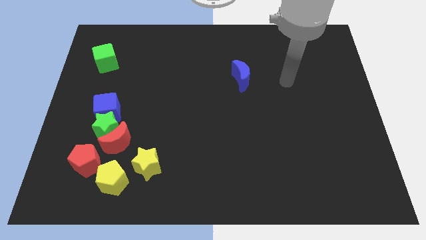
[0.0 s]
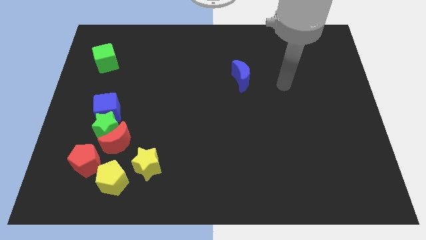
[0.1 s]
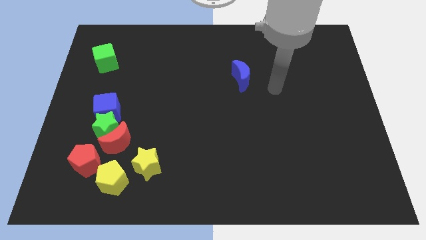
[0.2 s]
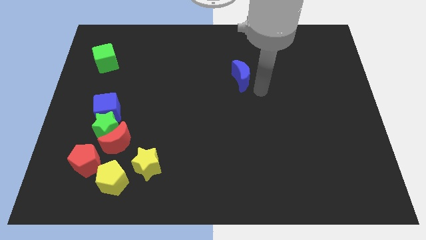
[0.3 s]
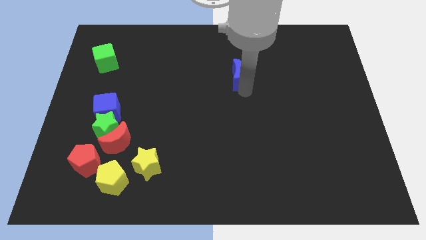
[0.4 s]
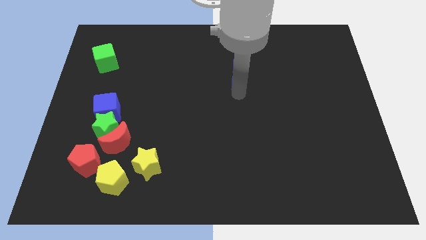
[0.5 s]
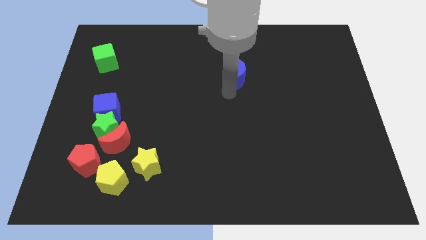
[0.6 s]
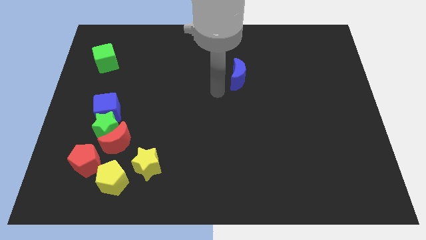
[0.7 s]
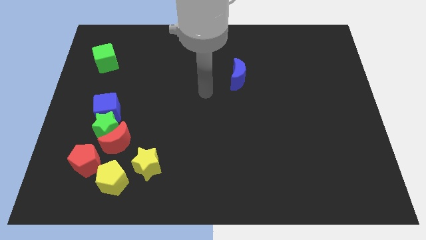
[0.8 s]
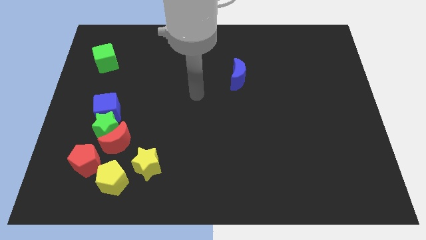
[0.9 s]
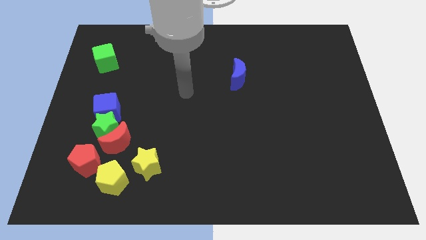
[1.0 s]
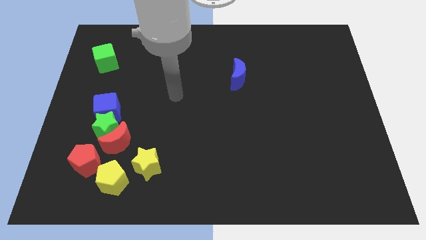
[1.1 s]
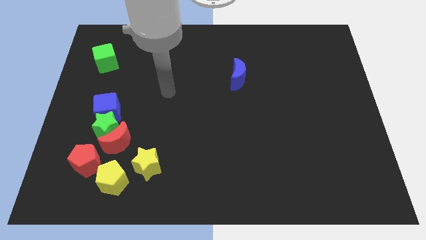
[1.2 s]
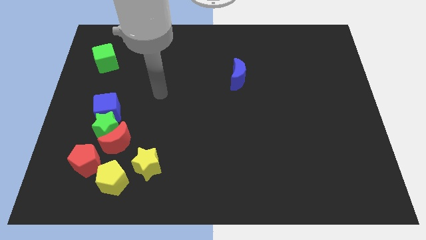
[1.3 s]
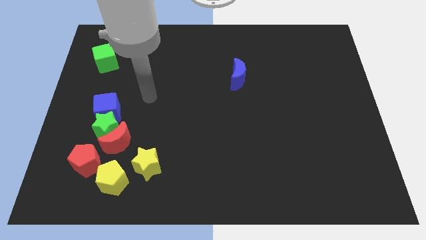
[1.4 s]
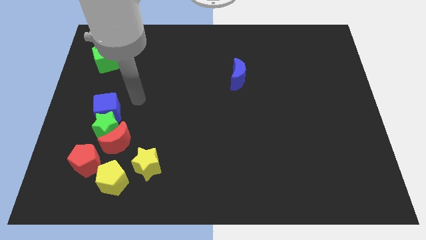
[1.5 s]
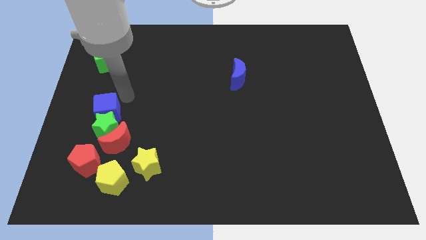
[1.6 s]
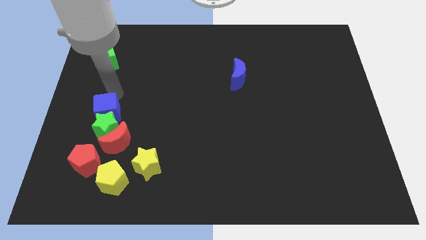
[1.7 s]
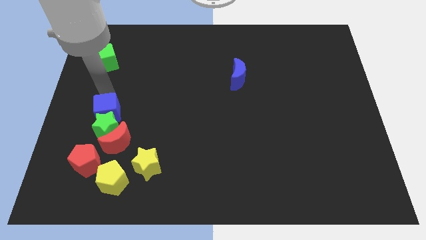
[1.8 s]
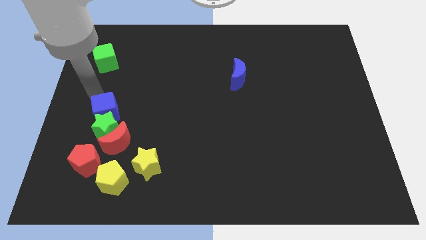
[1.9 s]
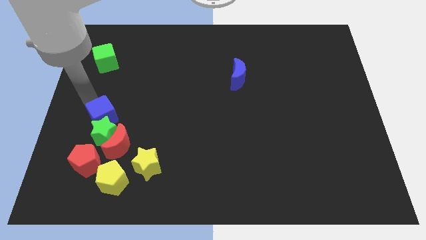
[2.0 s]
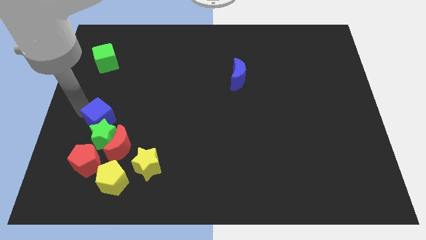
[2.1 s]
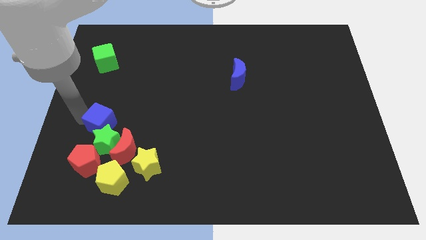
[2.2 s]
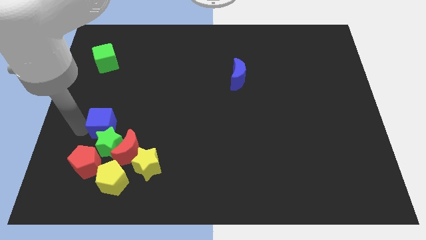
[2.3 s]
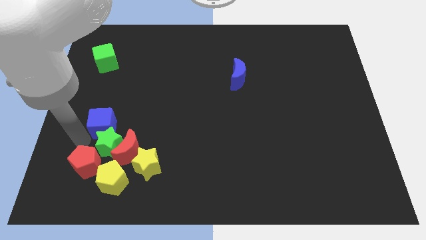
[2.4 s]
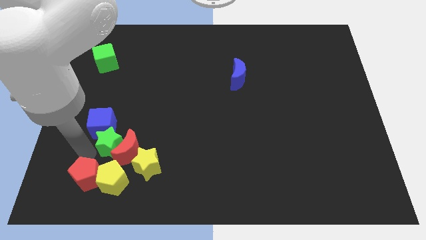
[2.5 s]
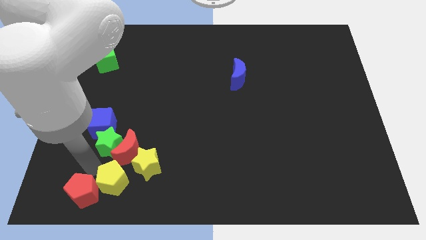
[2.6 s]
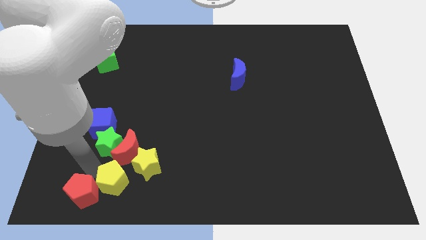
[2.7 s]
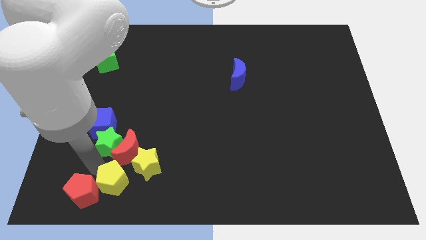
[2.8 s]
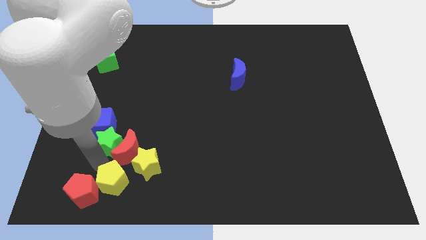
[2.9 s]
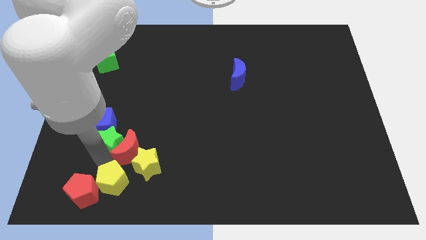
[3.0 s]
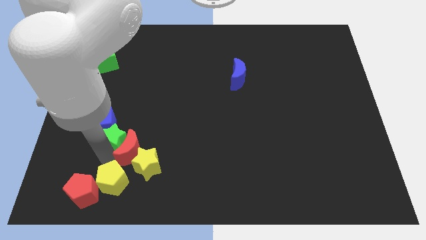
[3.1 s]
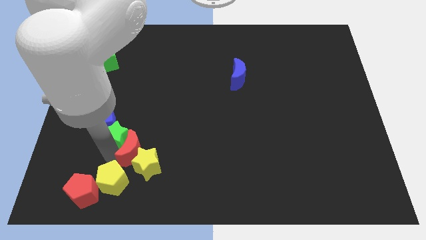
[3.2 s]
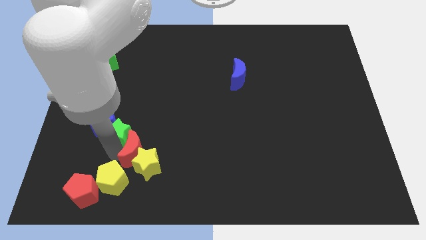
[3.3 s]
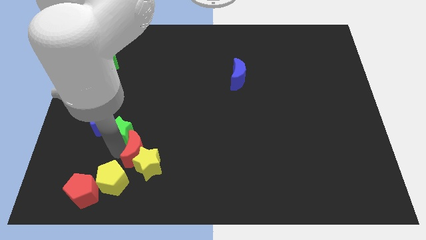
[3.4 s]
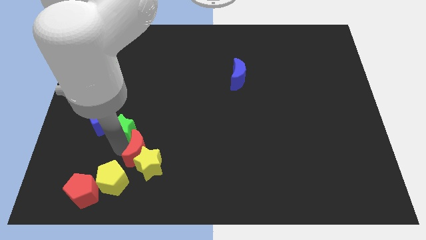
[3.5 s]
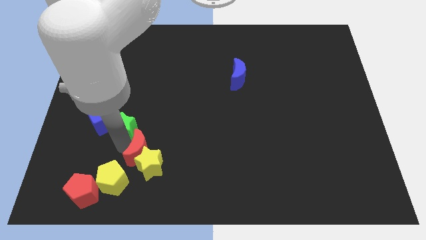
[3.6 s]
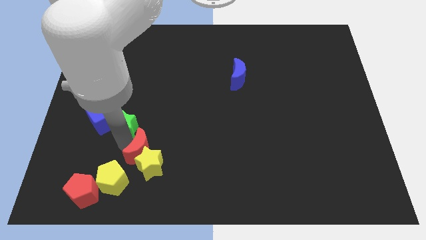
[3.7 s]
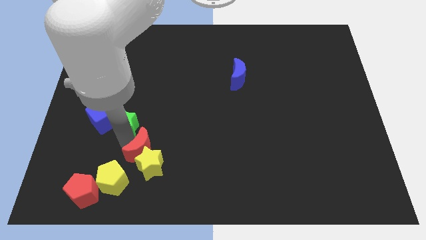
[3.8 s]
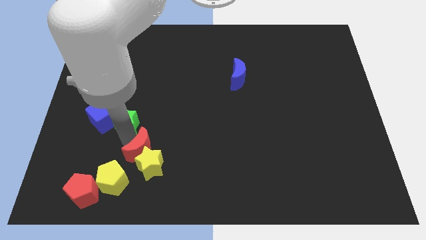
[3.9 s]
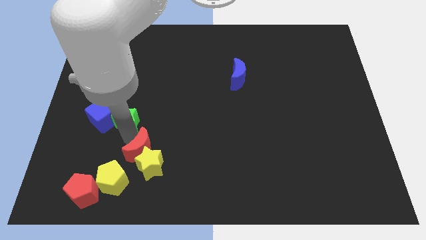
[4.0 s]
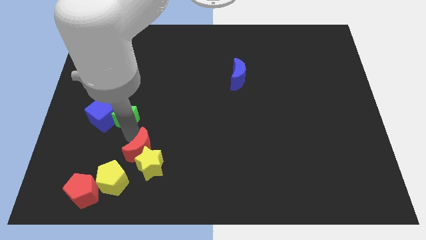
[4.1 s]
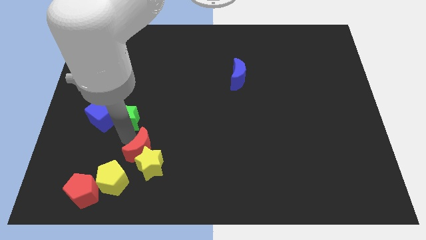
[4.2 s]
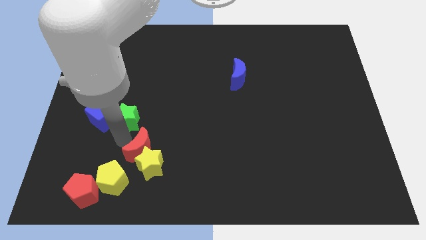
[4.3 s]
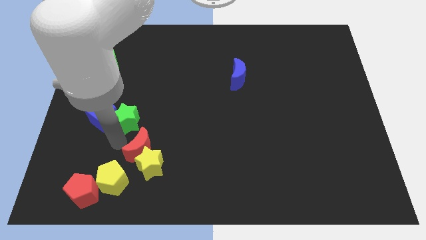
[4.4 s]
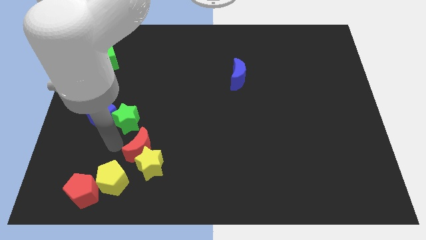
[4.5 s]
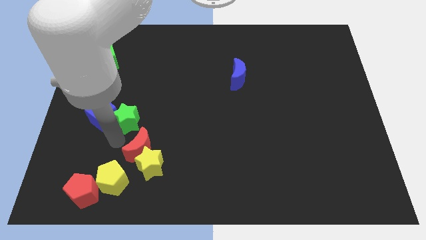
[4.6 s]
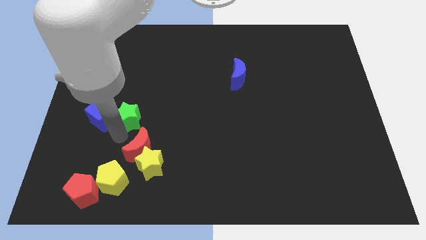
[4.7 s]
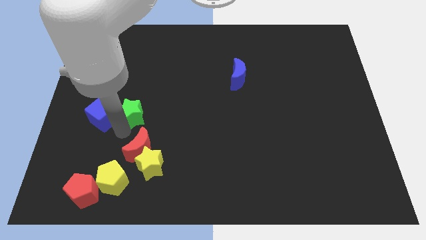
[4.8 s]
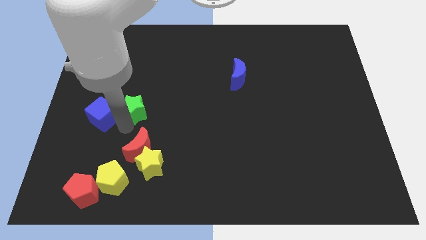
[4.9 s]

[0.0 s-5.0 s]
pull the green star apart from the red moon, blue cube, and red pentagon

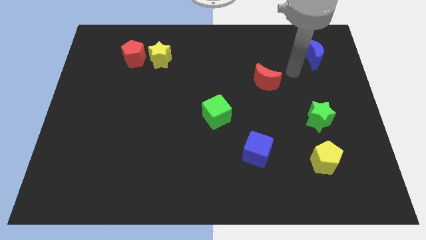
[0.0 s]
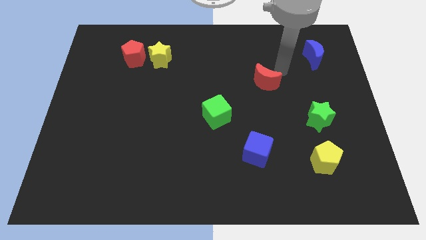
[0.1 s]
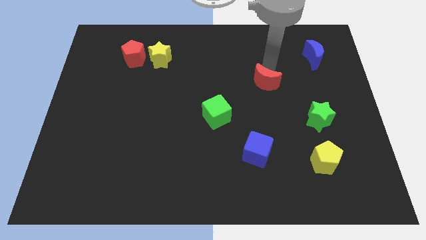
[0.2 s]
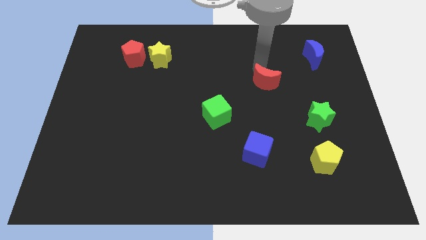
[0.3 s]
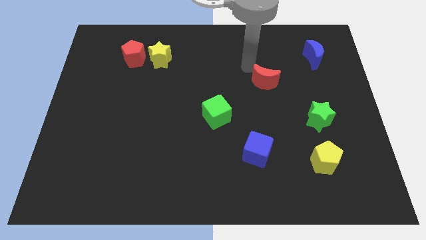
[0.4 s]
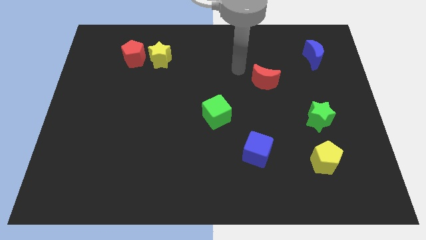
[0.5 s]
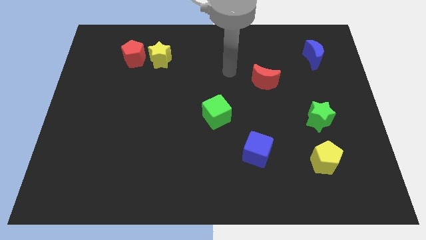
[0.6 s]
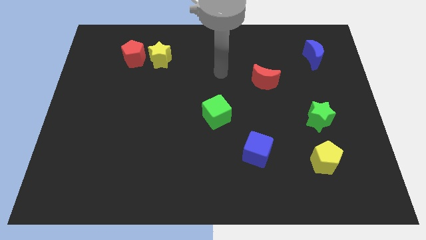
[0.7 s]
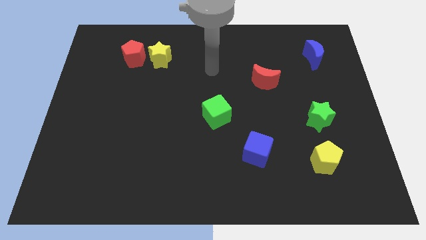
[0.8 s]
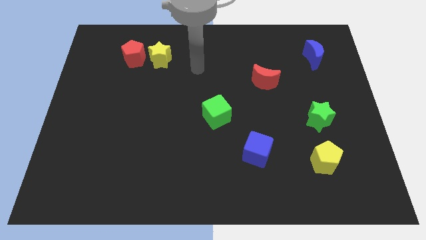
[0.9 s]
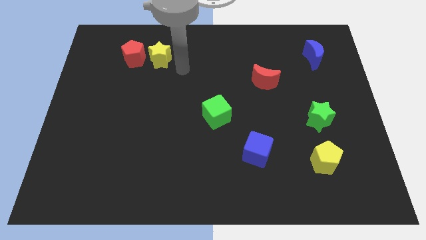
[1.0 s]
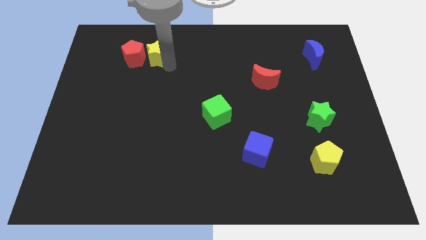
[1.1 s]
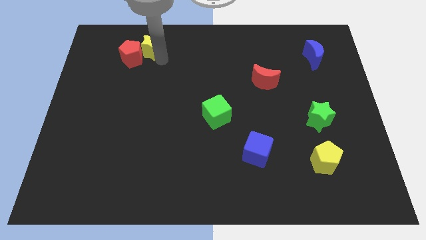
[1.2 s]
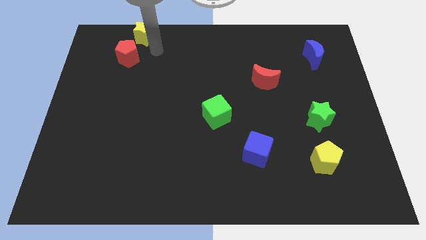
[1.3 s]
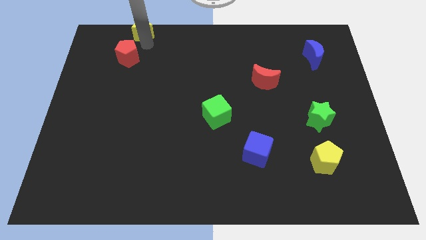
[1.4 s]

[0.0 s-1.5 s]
pull the red pentagon apart from the yellow star

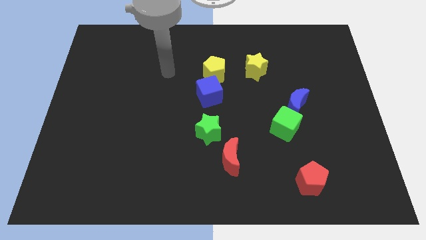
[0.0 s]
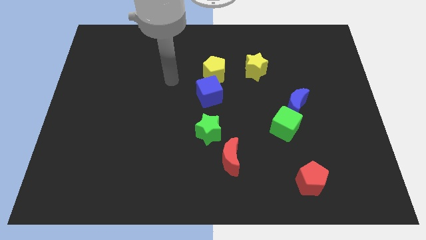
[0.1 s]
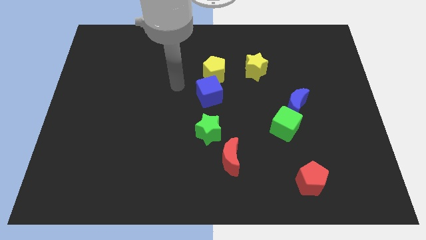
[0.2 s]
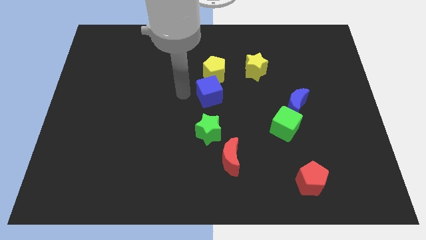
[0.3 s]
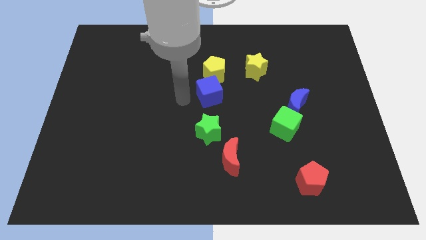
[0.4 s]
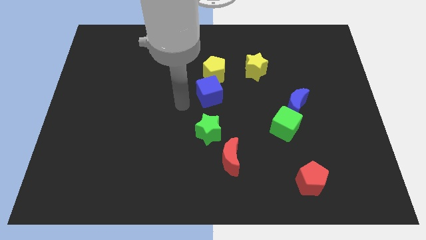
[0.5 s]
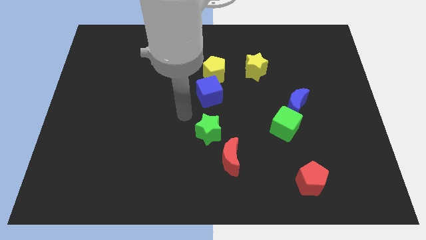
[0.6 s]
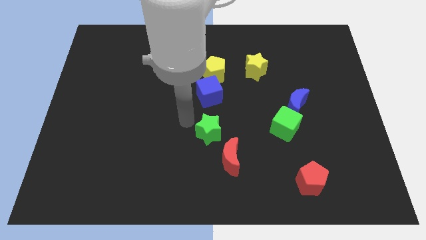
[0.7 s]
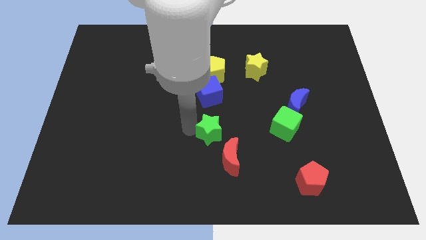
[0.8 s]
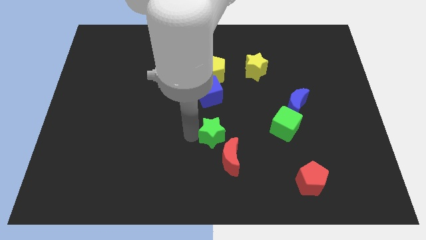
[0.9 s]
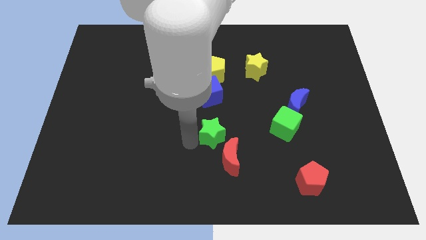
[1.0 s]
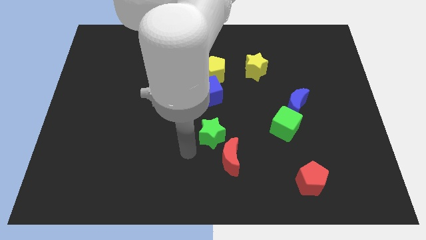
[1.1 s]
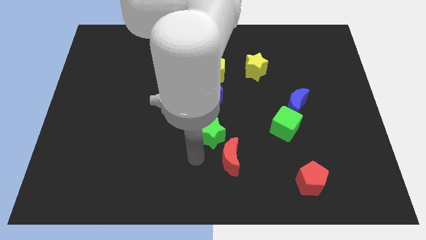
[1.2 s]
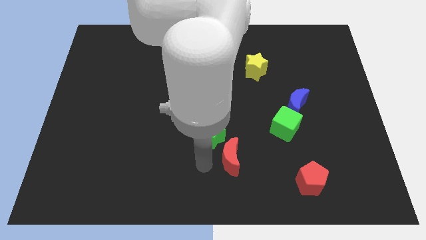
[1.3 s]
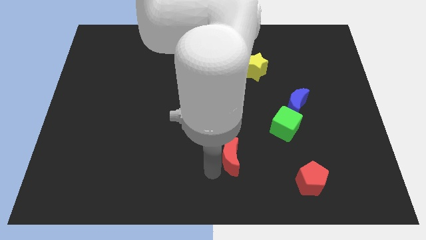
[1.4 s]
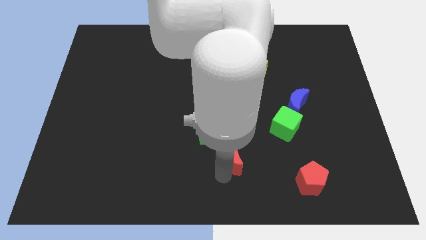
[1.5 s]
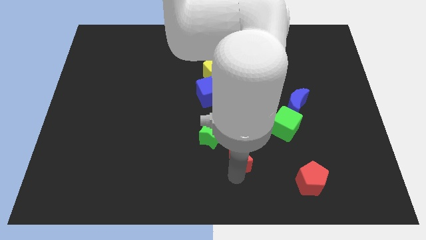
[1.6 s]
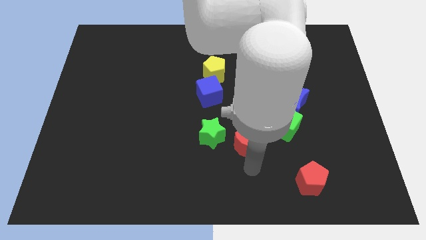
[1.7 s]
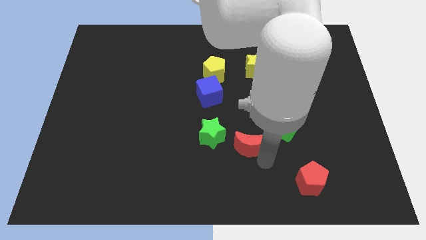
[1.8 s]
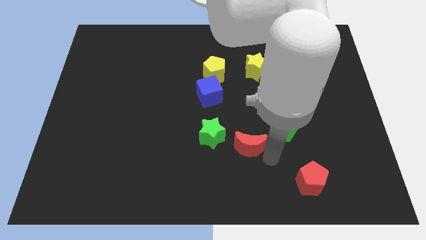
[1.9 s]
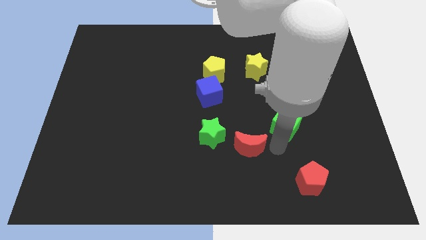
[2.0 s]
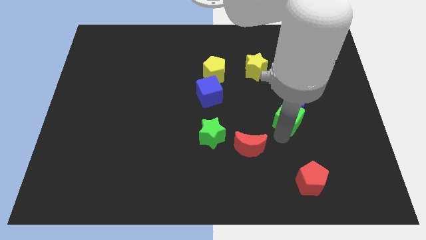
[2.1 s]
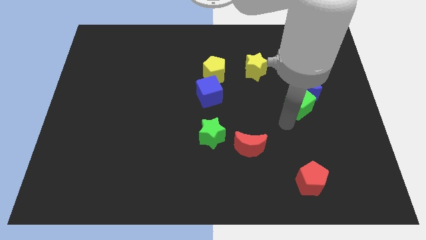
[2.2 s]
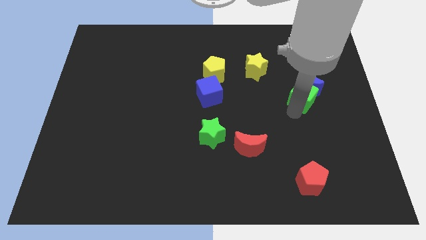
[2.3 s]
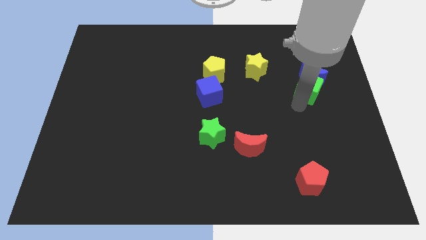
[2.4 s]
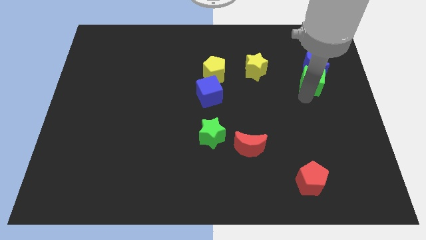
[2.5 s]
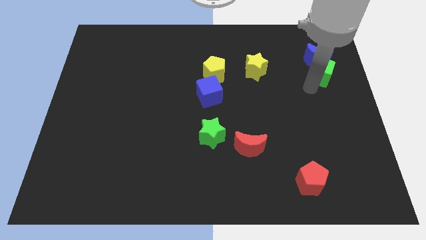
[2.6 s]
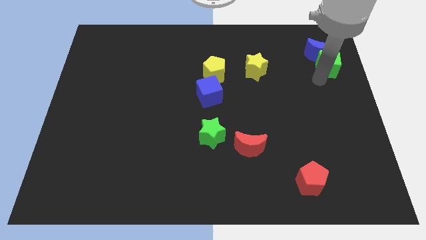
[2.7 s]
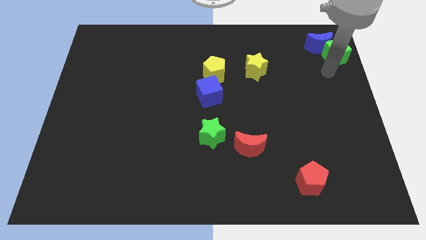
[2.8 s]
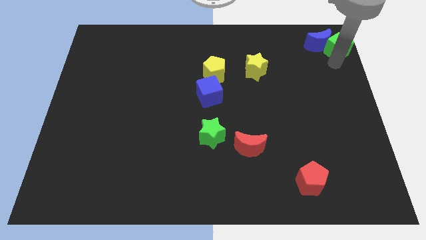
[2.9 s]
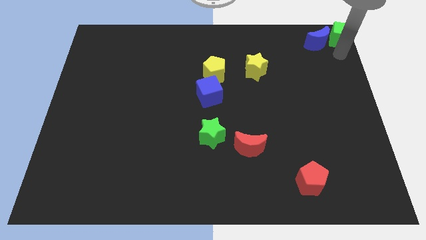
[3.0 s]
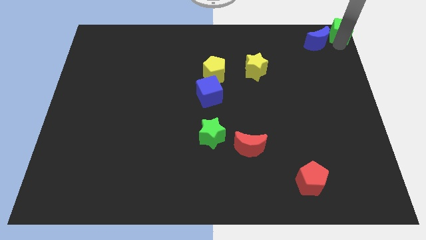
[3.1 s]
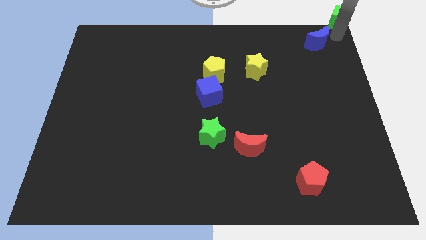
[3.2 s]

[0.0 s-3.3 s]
pull the blue moon apart from the green cube
